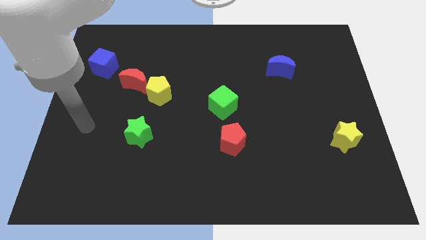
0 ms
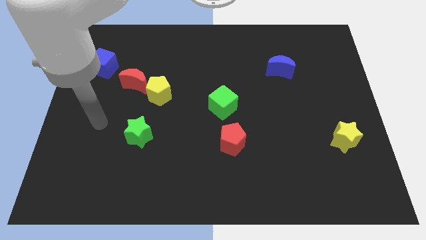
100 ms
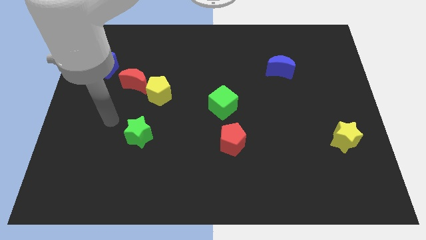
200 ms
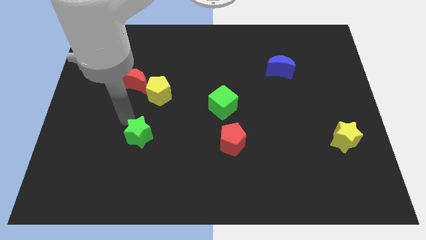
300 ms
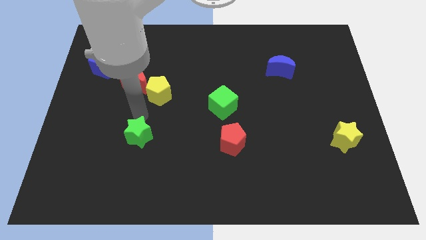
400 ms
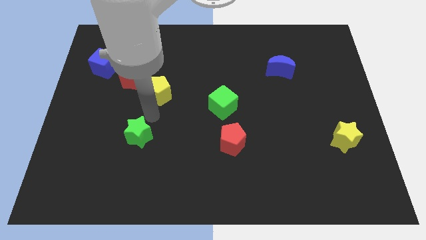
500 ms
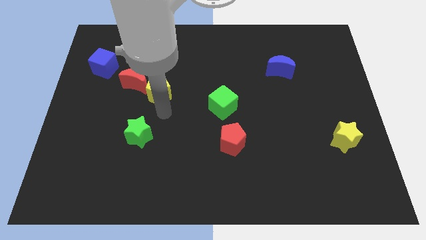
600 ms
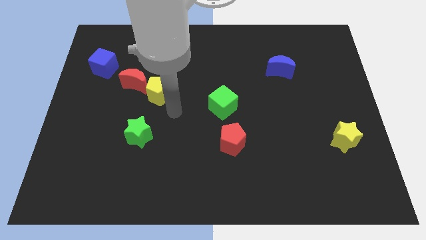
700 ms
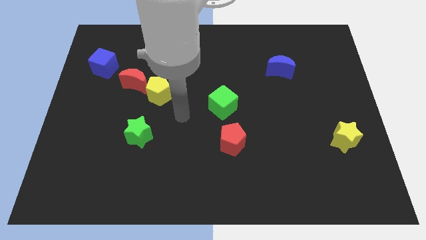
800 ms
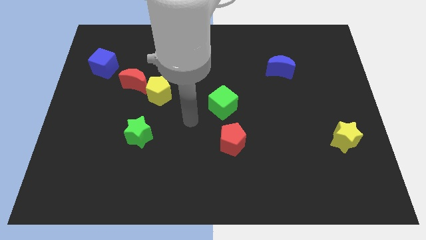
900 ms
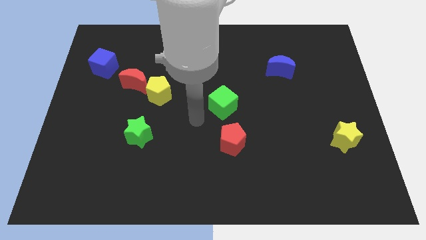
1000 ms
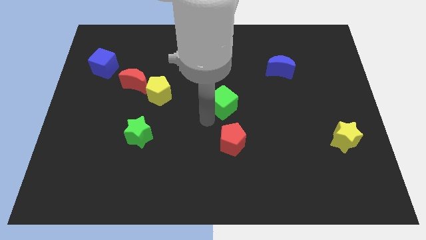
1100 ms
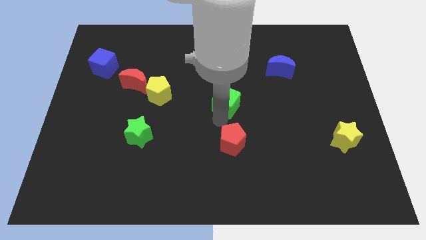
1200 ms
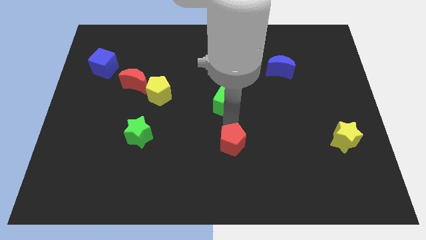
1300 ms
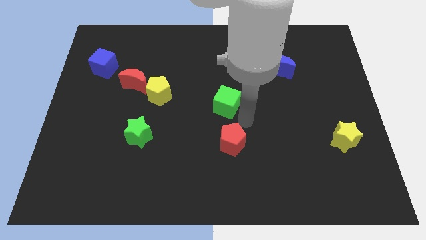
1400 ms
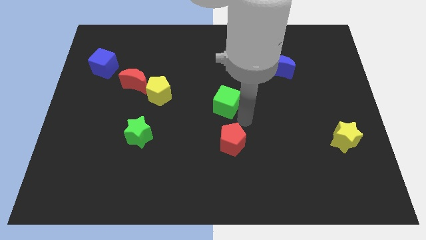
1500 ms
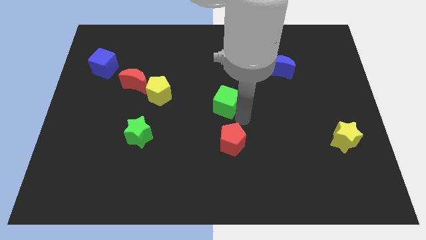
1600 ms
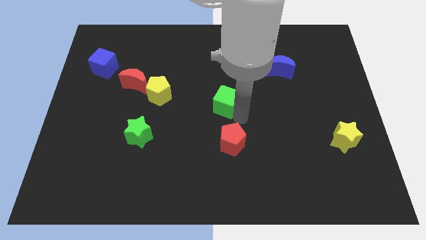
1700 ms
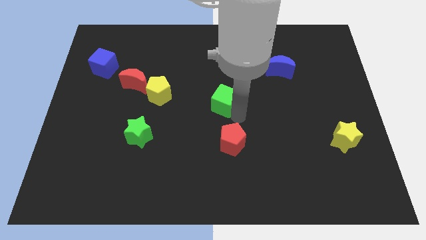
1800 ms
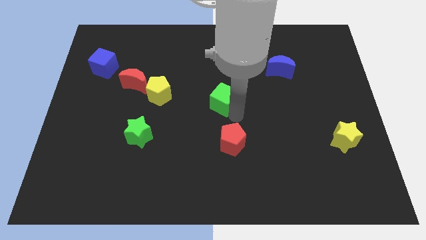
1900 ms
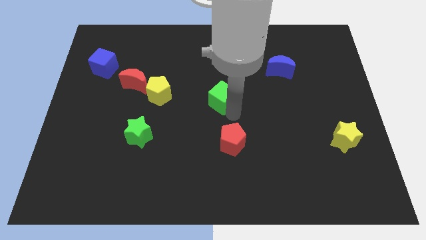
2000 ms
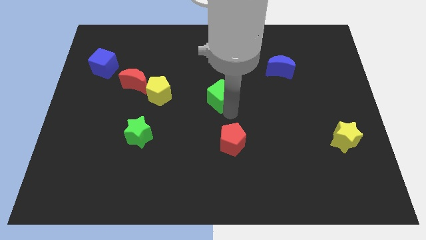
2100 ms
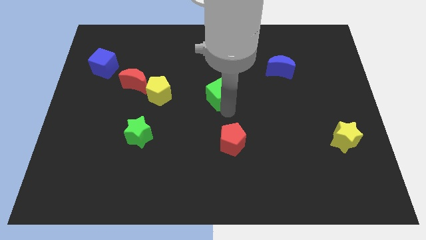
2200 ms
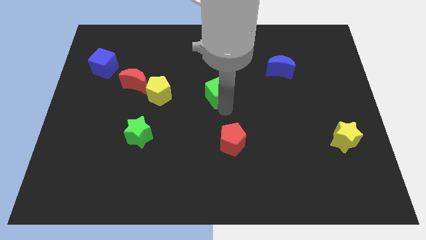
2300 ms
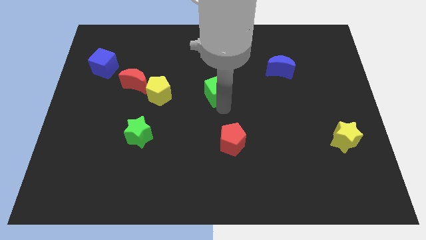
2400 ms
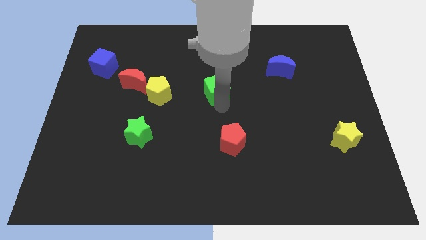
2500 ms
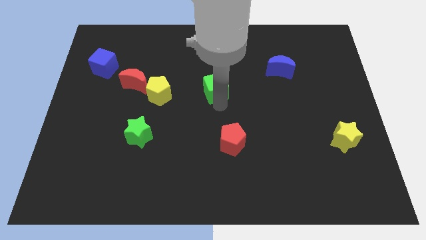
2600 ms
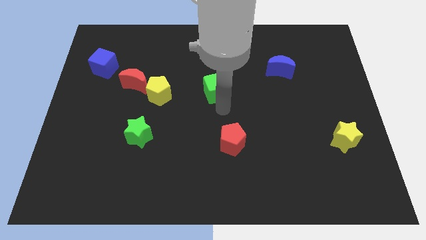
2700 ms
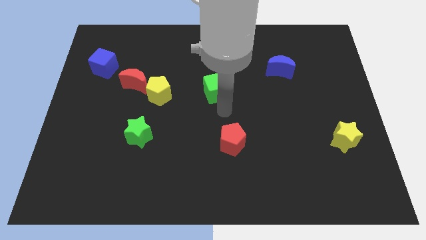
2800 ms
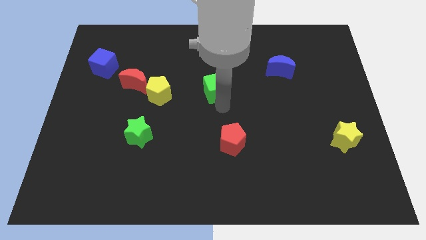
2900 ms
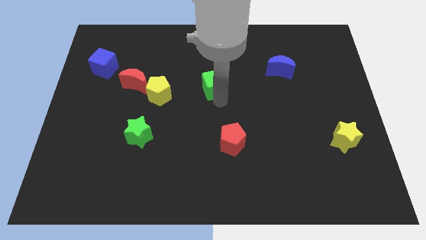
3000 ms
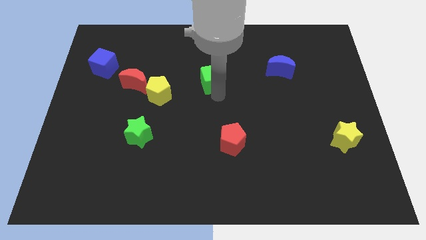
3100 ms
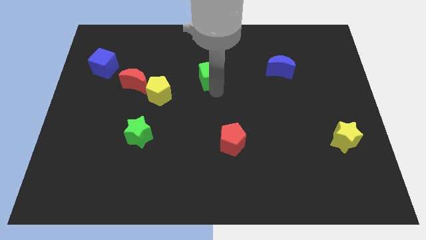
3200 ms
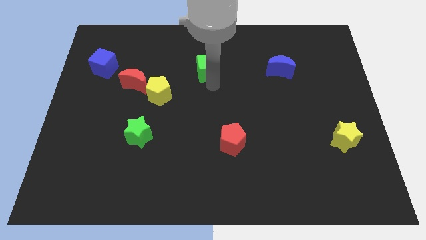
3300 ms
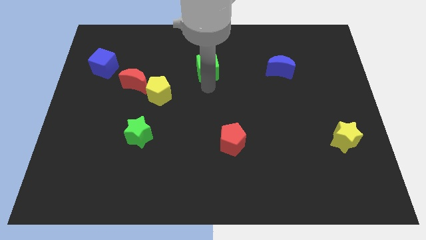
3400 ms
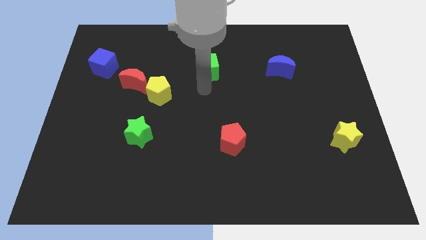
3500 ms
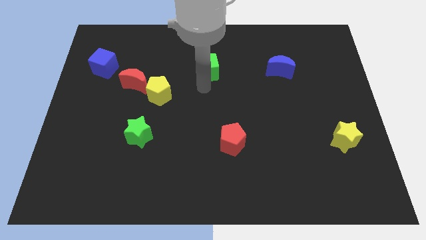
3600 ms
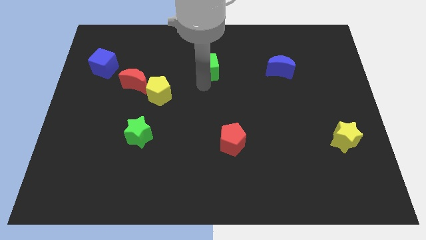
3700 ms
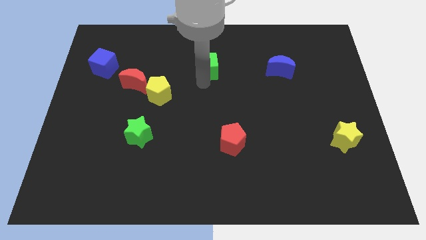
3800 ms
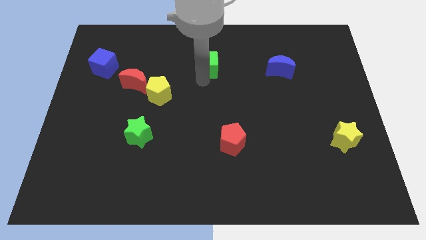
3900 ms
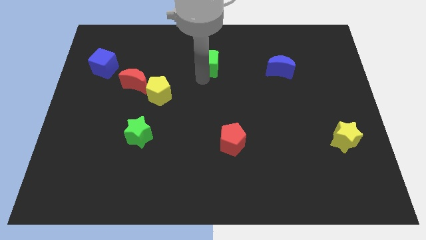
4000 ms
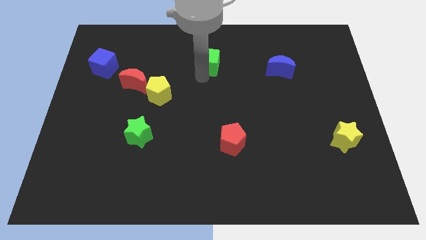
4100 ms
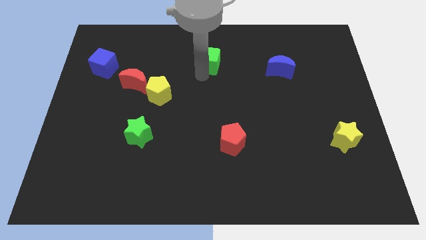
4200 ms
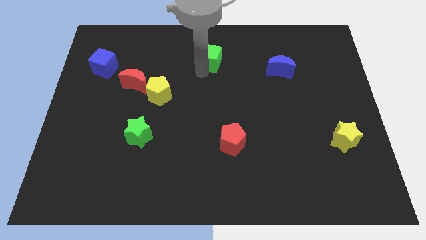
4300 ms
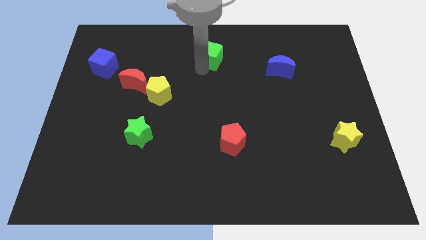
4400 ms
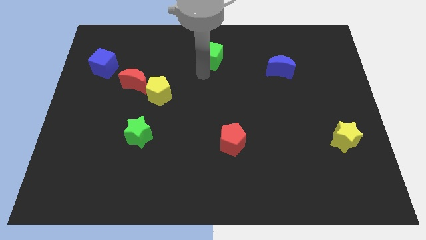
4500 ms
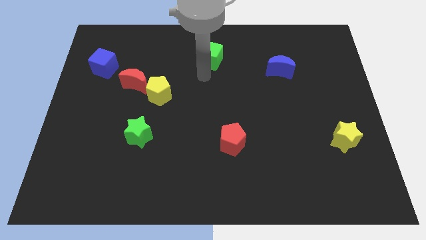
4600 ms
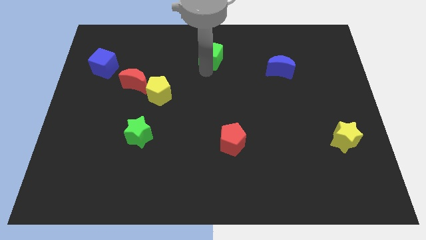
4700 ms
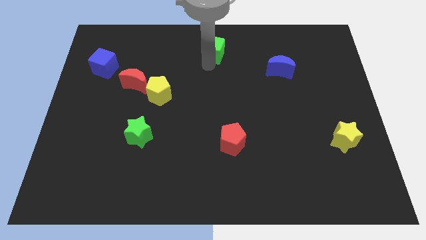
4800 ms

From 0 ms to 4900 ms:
move the green cube to the top side

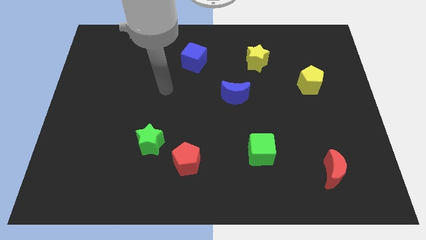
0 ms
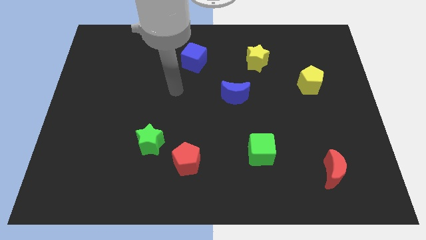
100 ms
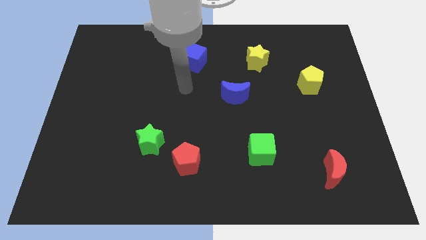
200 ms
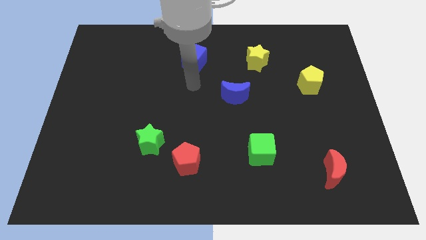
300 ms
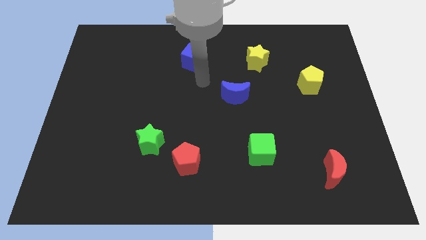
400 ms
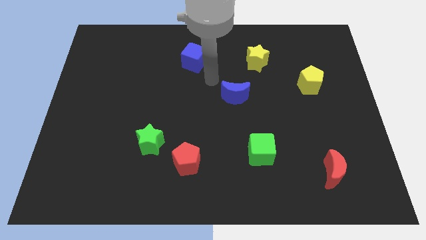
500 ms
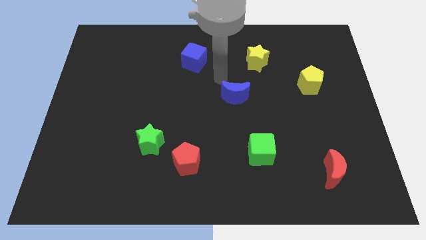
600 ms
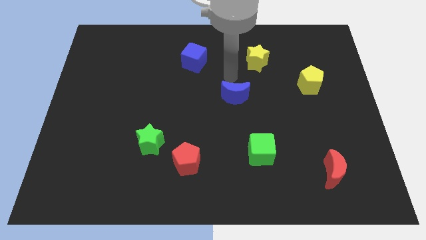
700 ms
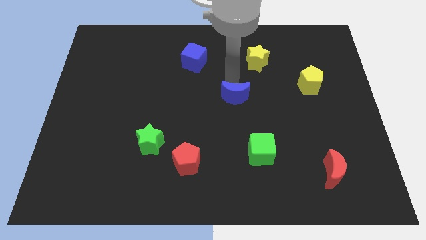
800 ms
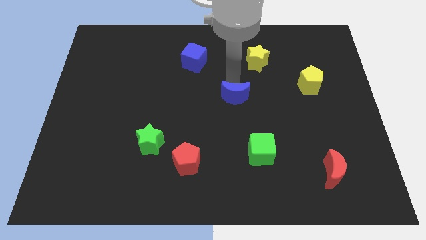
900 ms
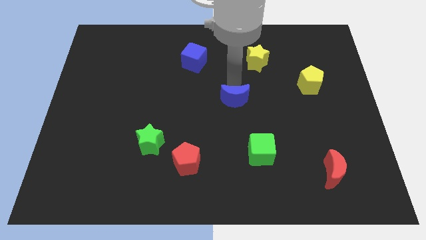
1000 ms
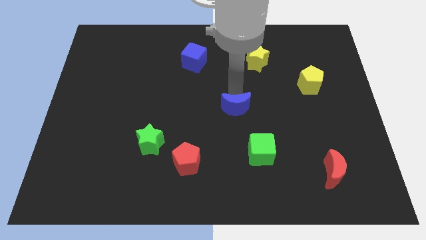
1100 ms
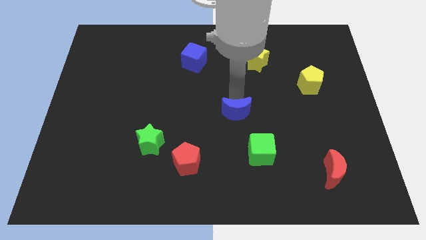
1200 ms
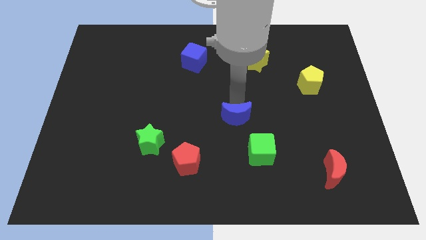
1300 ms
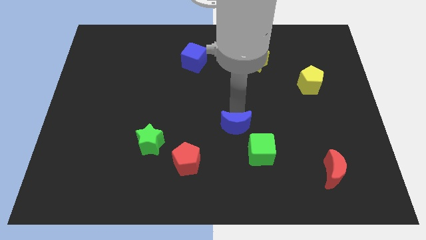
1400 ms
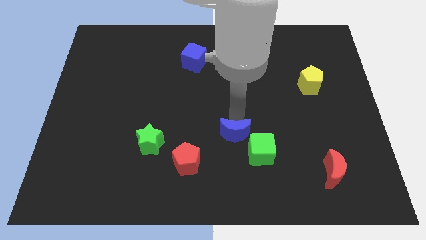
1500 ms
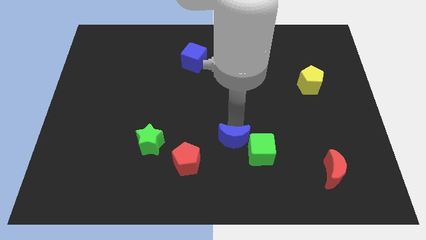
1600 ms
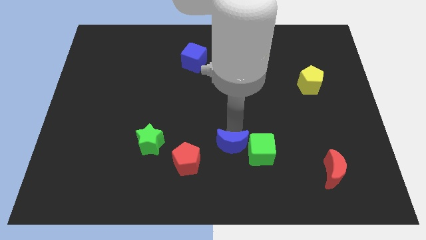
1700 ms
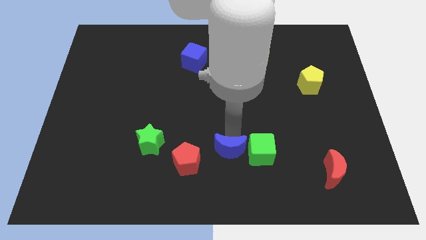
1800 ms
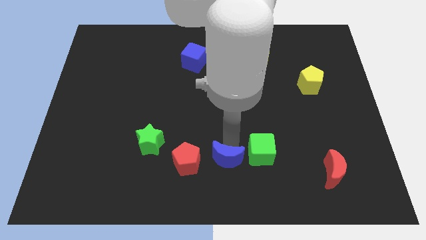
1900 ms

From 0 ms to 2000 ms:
move the blue moon to the bottom side

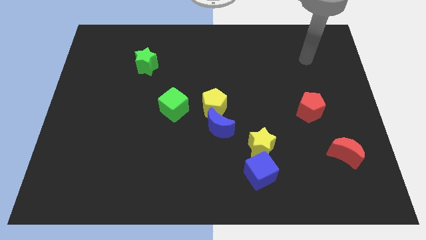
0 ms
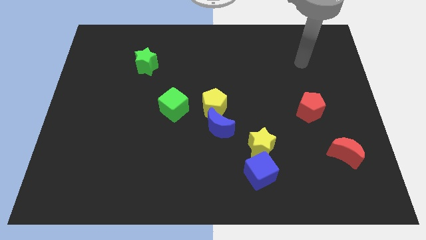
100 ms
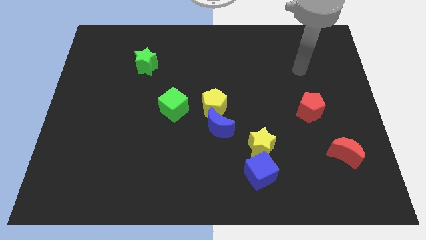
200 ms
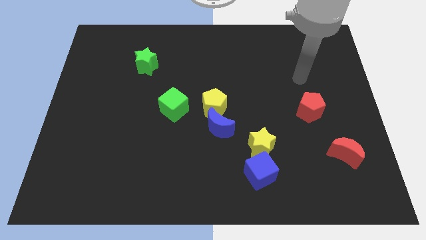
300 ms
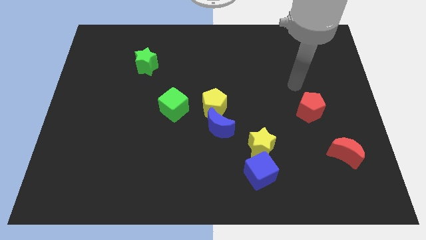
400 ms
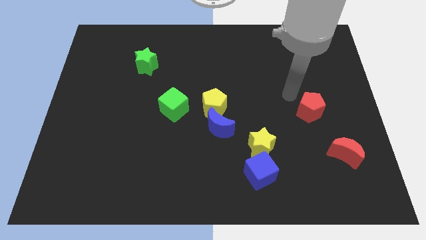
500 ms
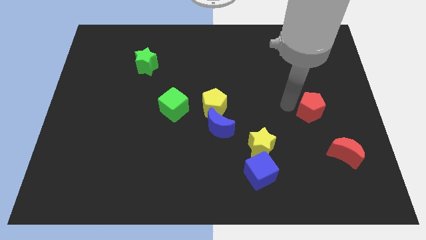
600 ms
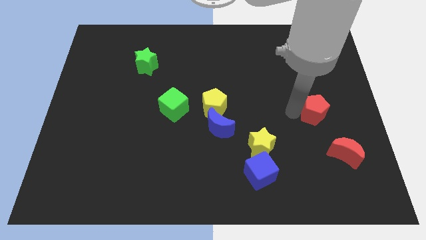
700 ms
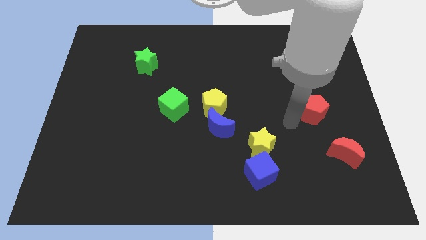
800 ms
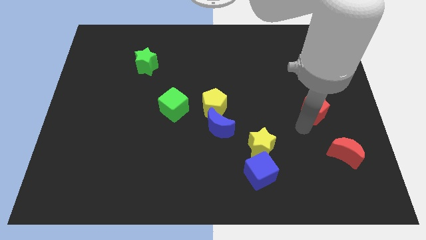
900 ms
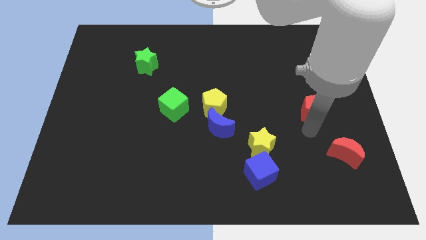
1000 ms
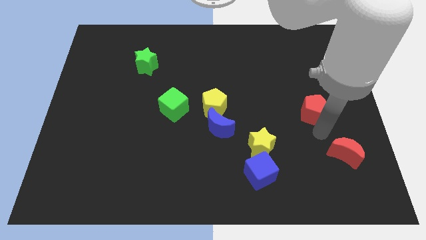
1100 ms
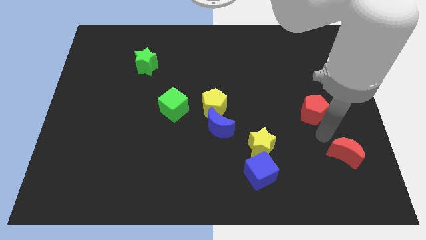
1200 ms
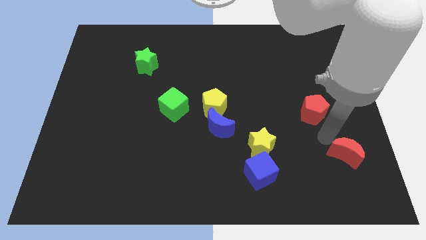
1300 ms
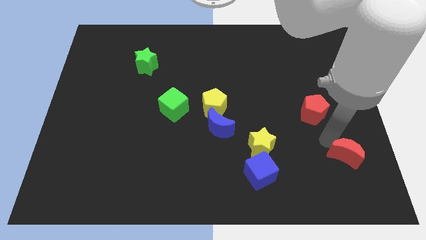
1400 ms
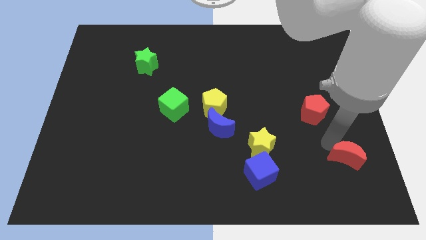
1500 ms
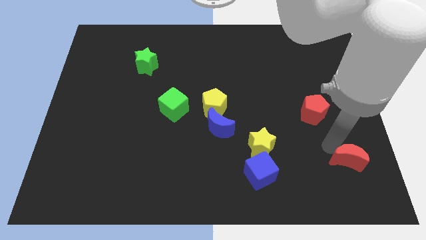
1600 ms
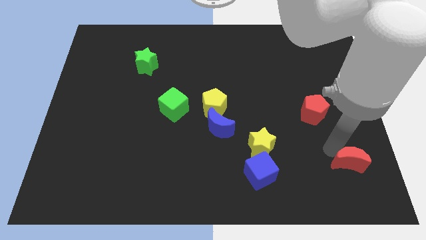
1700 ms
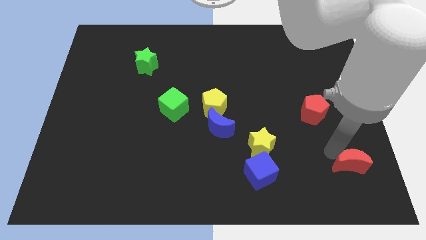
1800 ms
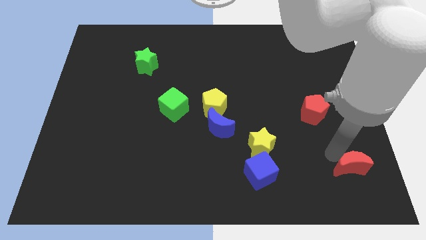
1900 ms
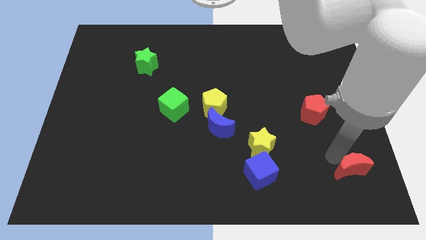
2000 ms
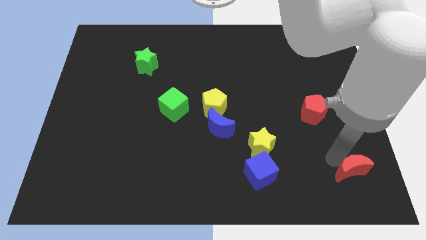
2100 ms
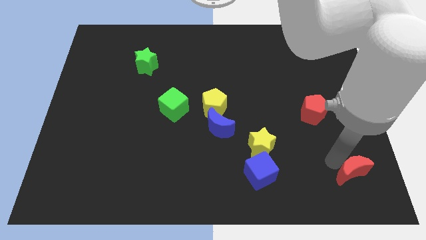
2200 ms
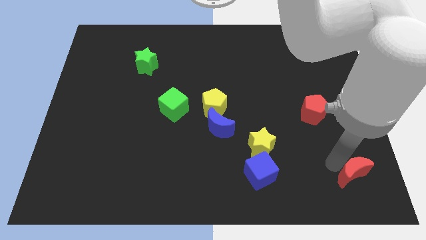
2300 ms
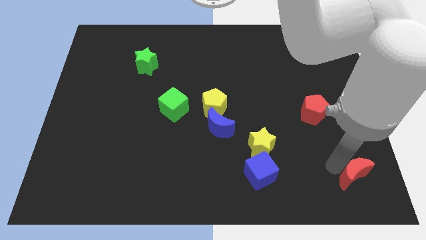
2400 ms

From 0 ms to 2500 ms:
slide the red moon to the lower right corner
